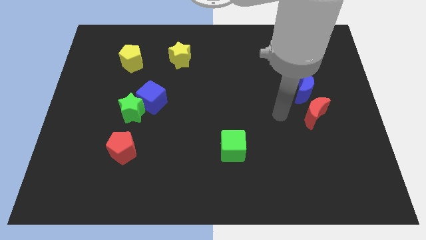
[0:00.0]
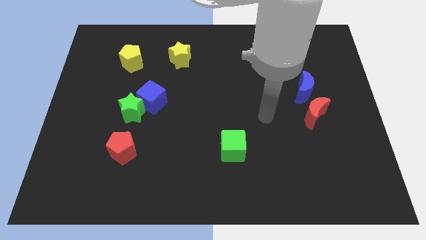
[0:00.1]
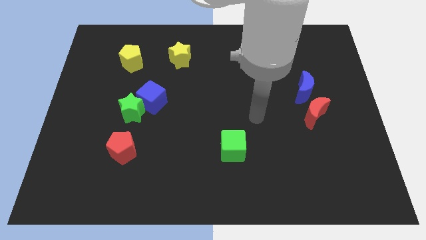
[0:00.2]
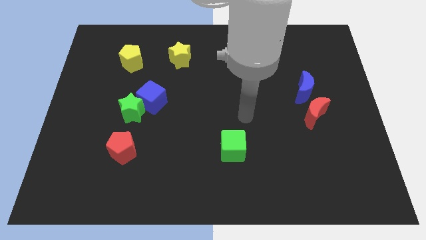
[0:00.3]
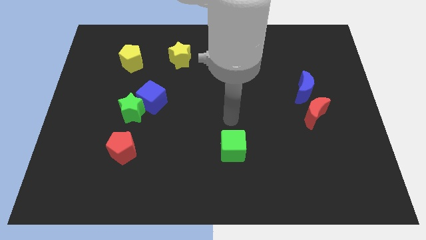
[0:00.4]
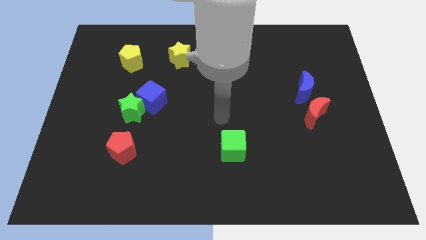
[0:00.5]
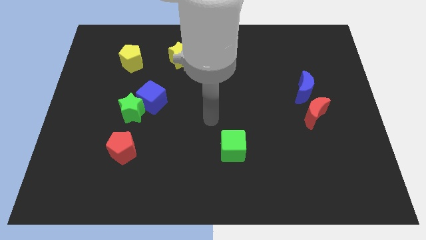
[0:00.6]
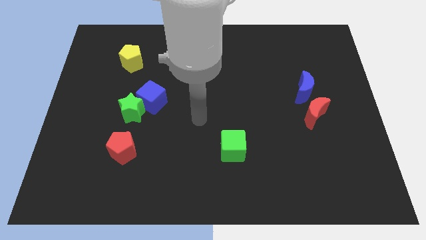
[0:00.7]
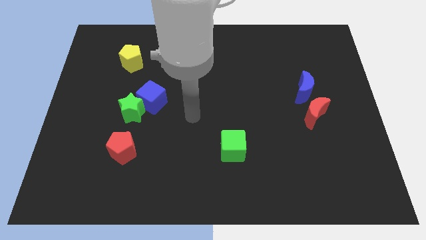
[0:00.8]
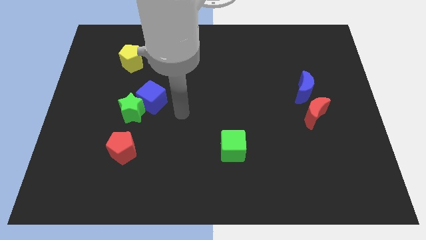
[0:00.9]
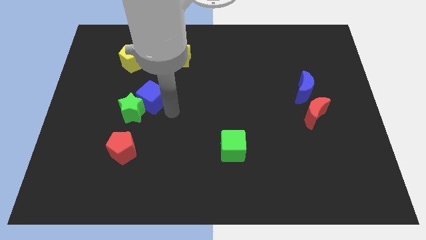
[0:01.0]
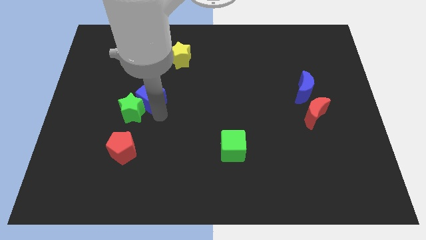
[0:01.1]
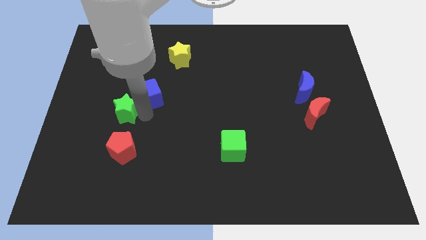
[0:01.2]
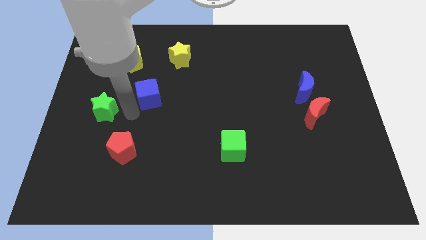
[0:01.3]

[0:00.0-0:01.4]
pull the blue cube apart from the green star

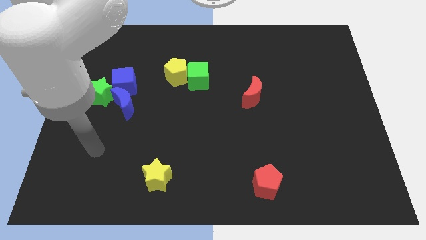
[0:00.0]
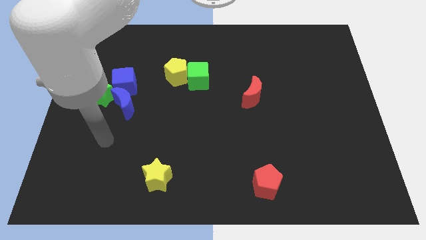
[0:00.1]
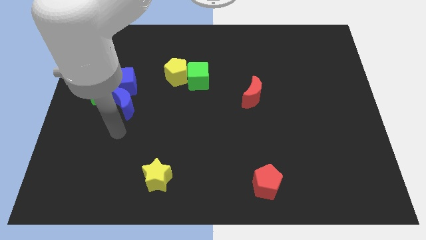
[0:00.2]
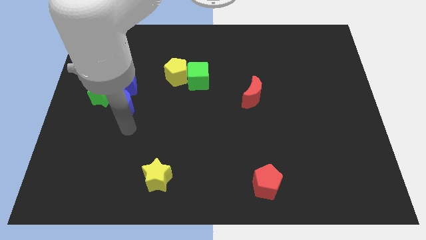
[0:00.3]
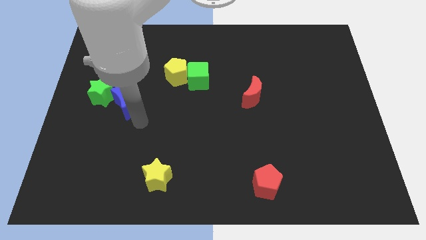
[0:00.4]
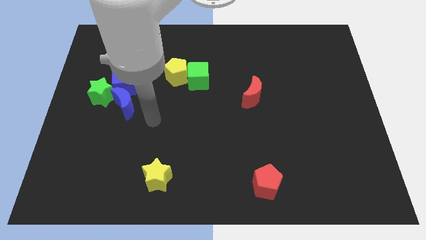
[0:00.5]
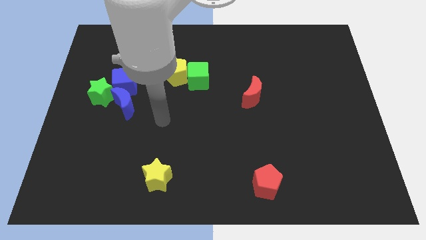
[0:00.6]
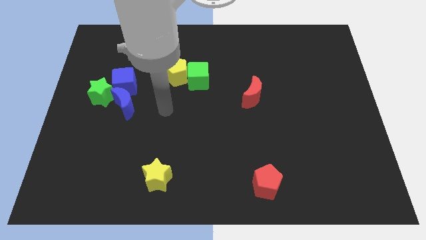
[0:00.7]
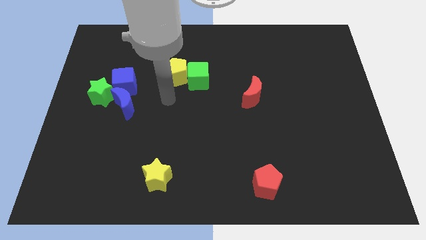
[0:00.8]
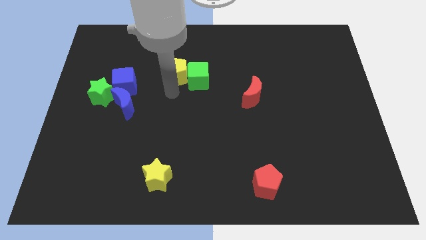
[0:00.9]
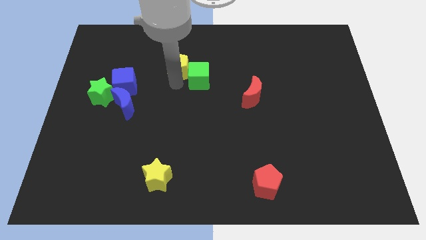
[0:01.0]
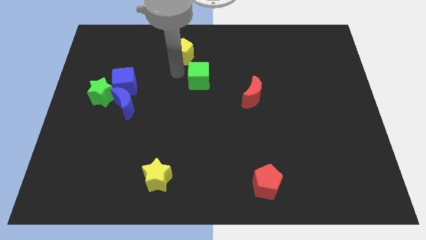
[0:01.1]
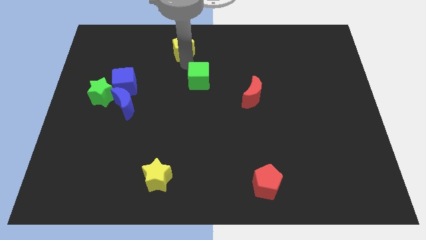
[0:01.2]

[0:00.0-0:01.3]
pull the green cube apart from the yellow pentagon

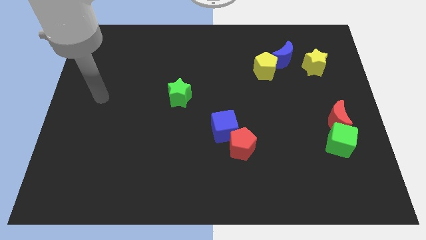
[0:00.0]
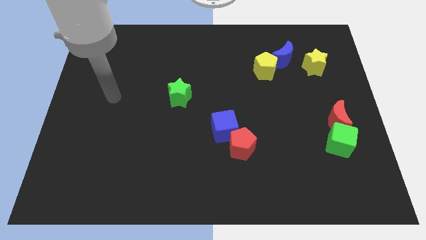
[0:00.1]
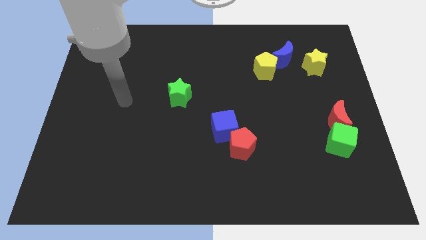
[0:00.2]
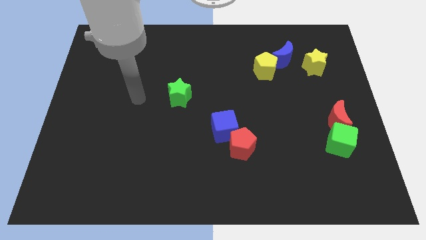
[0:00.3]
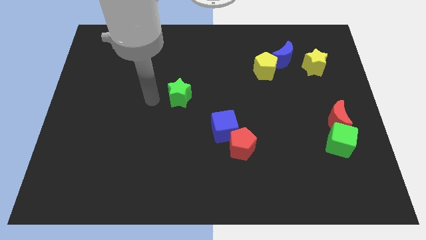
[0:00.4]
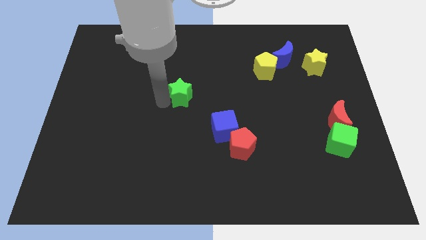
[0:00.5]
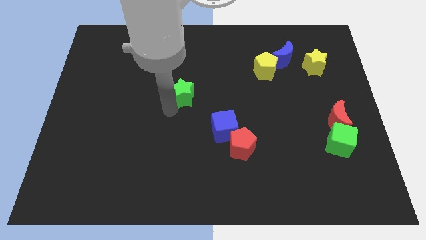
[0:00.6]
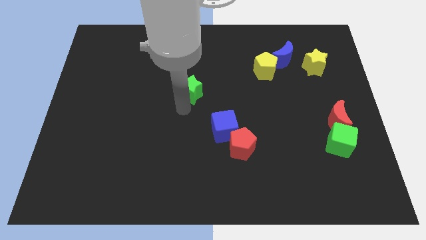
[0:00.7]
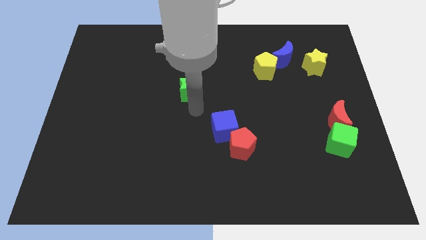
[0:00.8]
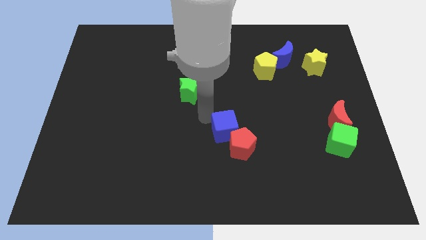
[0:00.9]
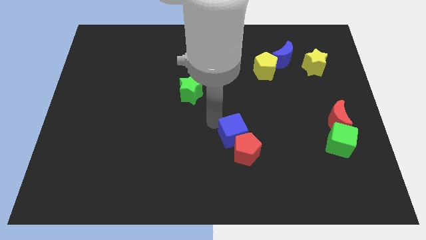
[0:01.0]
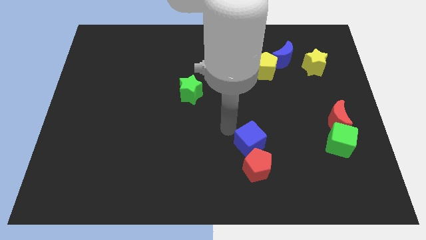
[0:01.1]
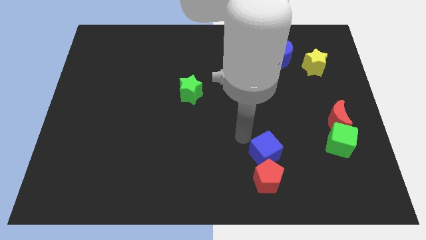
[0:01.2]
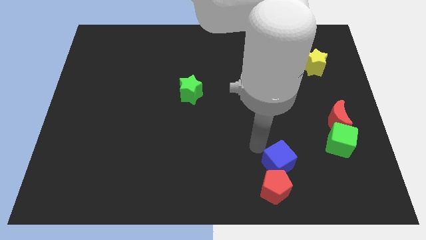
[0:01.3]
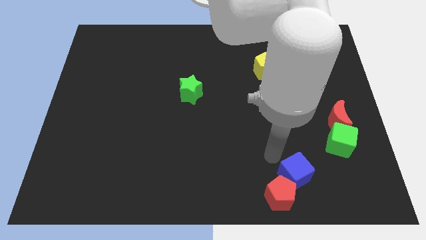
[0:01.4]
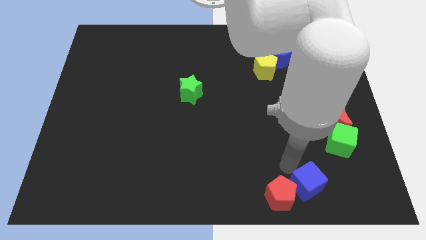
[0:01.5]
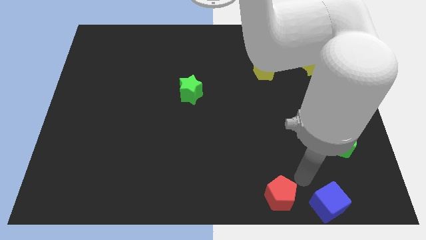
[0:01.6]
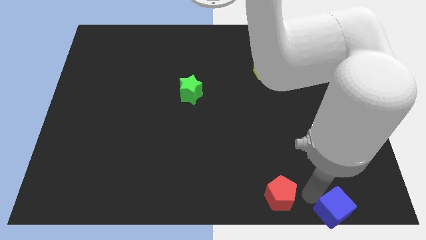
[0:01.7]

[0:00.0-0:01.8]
move the red pentagon away from the blue cube

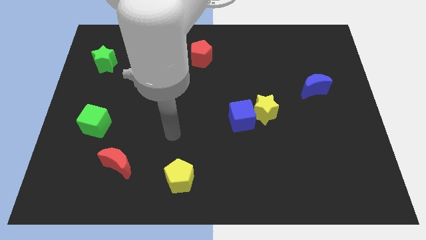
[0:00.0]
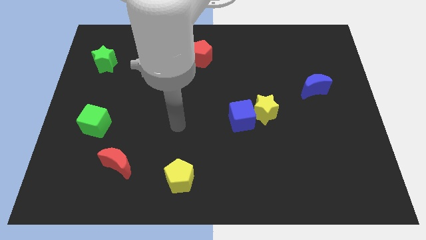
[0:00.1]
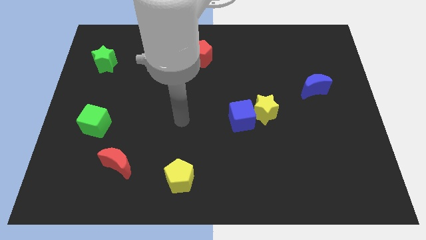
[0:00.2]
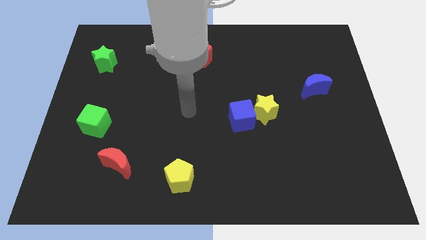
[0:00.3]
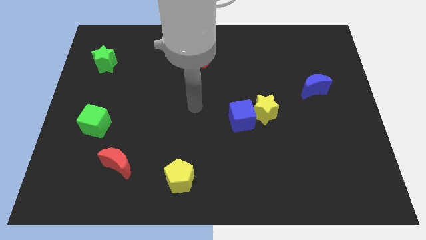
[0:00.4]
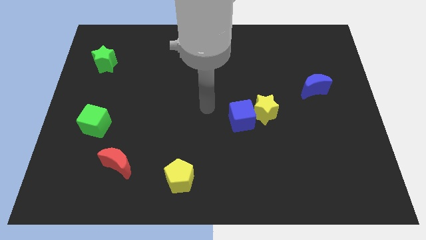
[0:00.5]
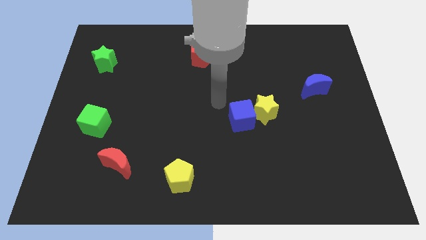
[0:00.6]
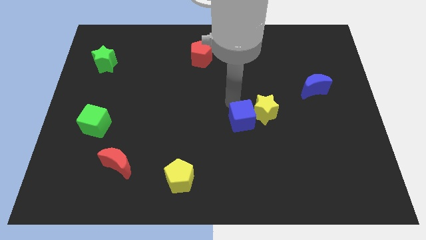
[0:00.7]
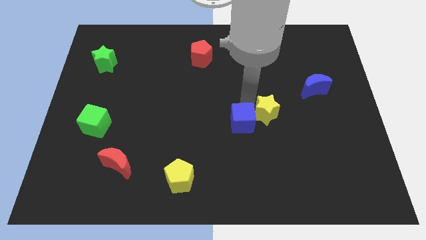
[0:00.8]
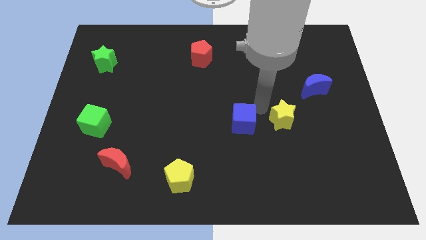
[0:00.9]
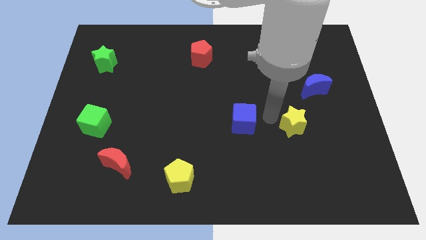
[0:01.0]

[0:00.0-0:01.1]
separate the blue cube from the yellow star

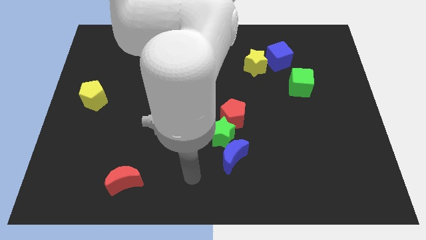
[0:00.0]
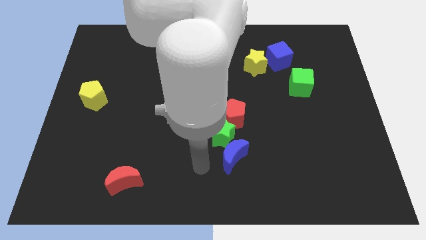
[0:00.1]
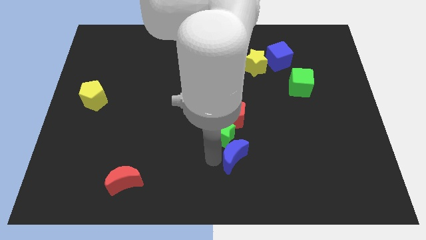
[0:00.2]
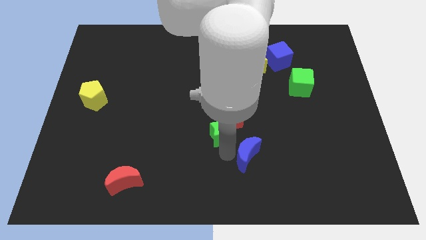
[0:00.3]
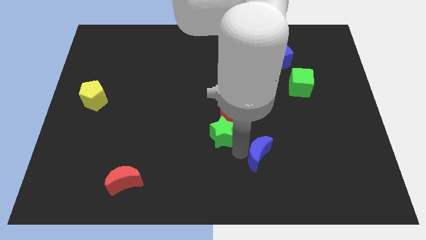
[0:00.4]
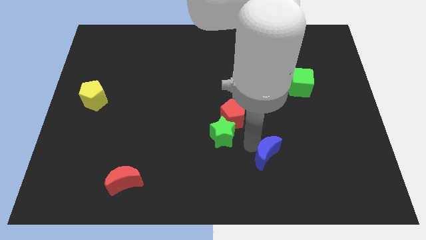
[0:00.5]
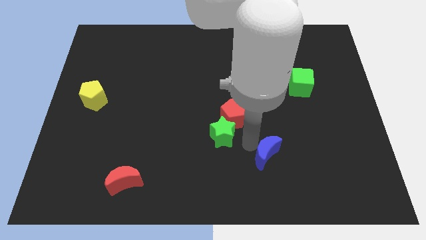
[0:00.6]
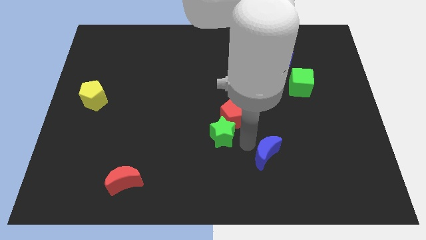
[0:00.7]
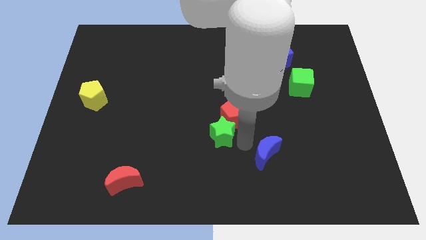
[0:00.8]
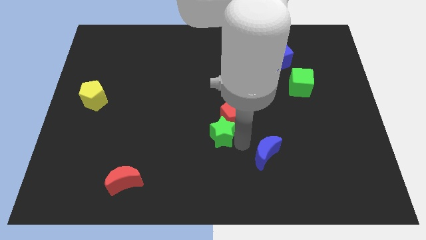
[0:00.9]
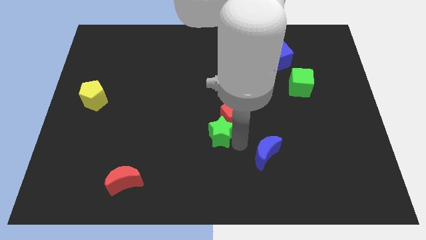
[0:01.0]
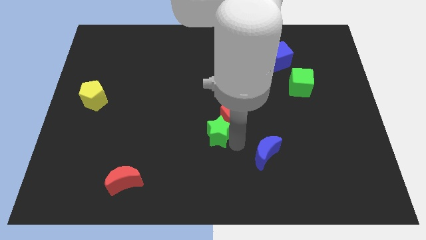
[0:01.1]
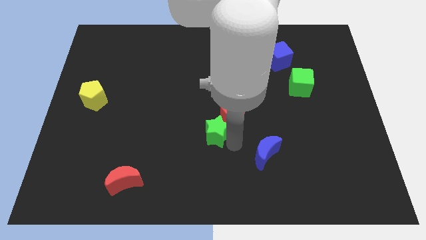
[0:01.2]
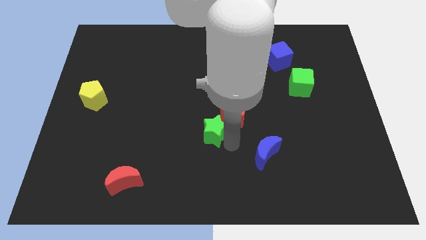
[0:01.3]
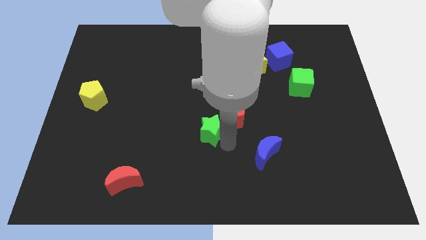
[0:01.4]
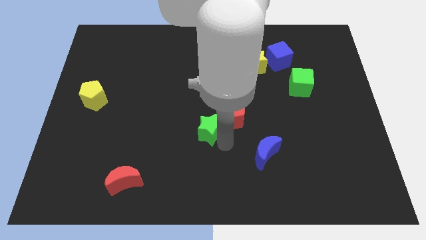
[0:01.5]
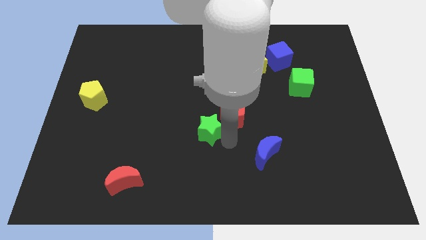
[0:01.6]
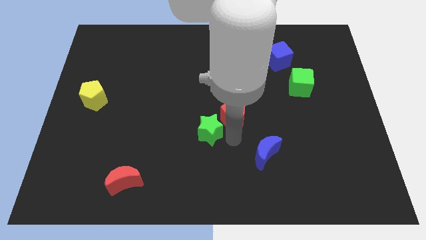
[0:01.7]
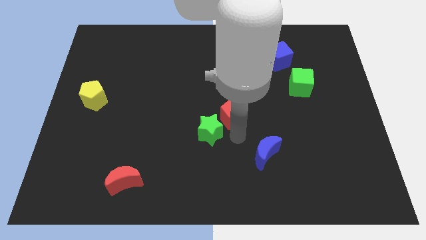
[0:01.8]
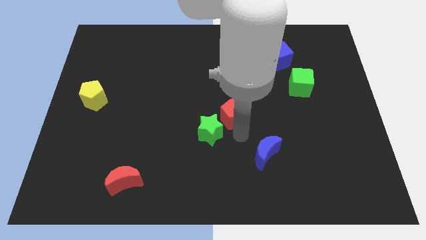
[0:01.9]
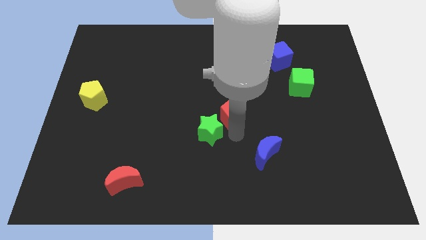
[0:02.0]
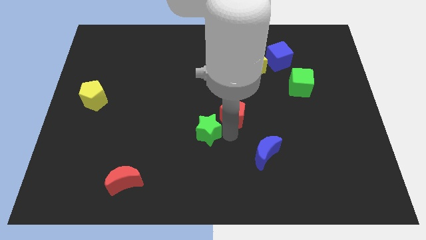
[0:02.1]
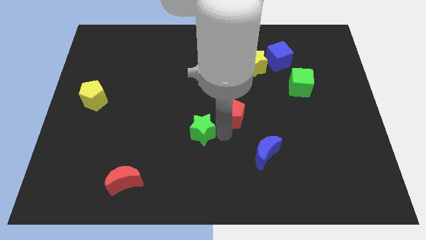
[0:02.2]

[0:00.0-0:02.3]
pull the green star apart from the red pentagon and blue moon

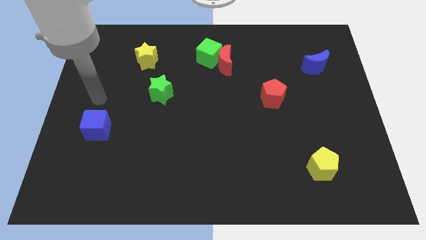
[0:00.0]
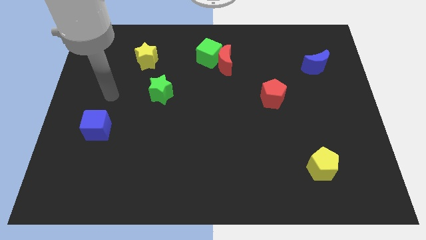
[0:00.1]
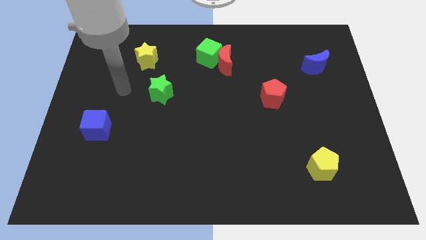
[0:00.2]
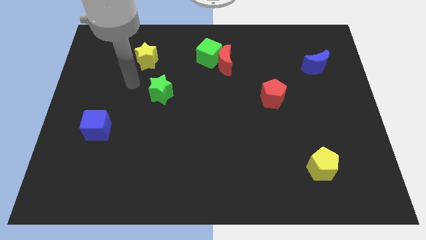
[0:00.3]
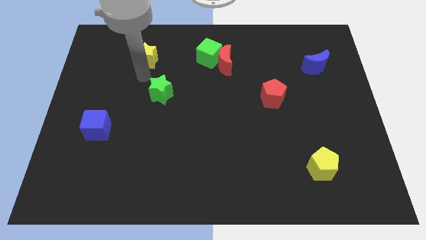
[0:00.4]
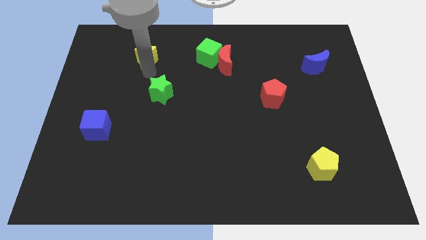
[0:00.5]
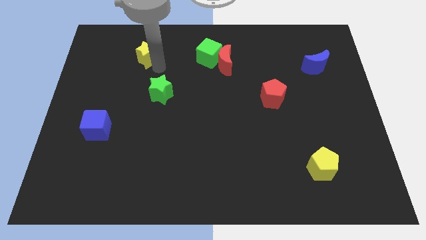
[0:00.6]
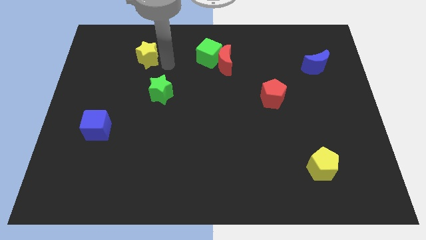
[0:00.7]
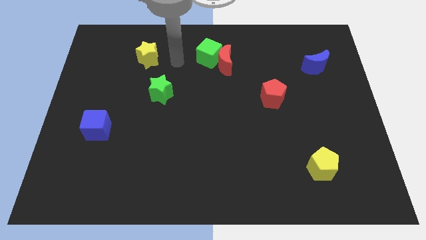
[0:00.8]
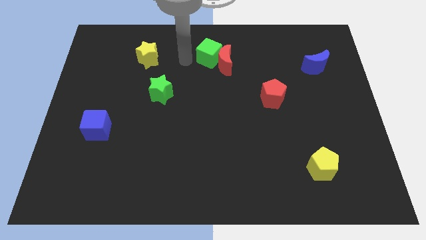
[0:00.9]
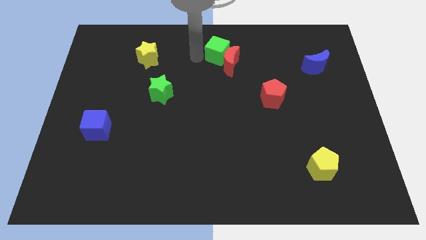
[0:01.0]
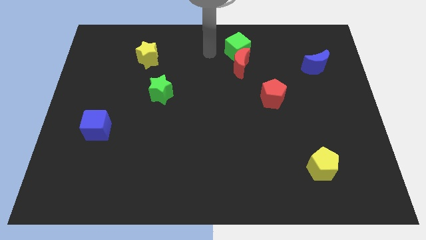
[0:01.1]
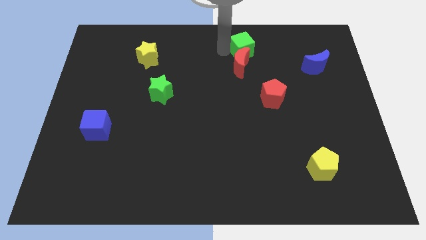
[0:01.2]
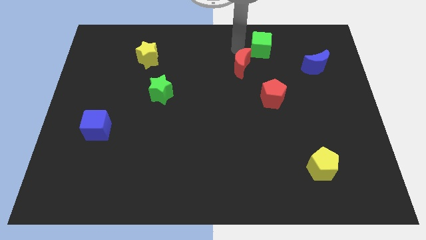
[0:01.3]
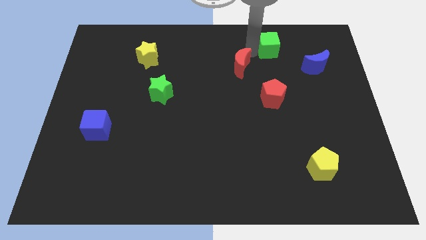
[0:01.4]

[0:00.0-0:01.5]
move the red moon away from the green cube
